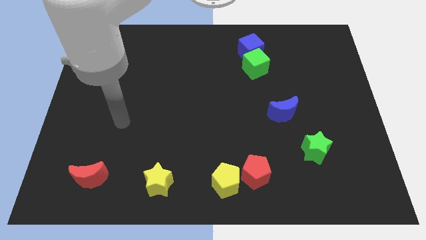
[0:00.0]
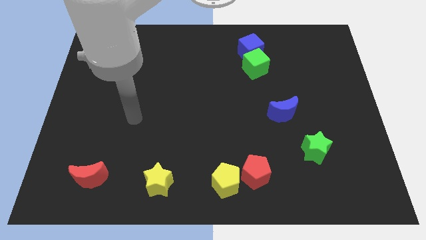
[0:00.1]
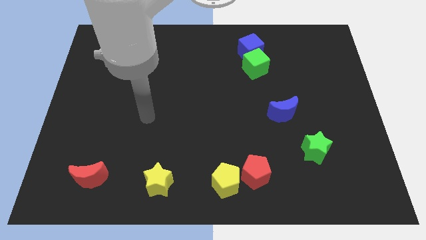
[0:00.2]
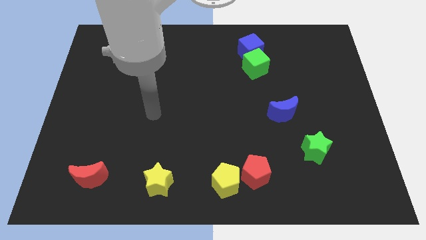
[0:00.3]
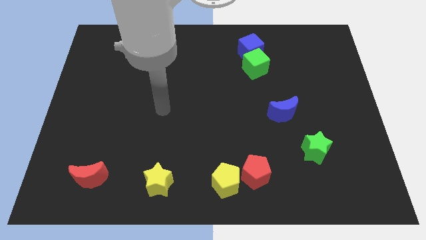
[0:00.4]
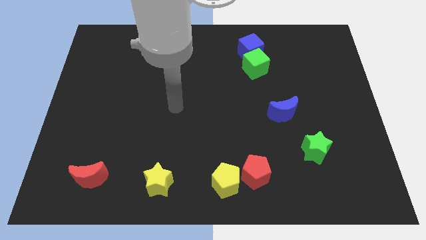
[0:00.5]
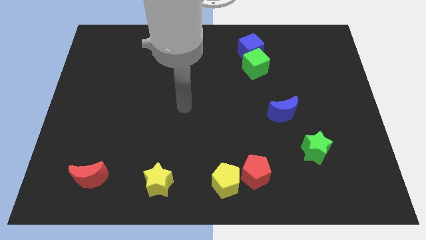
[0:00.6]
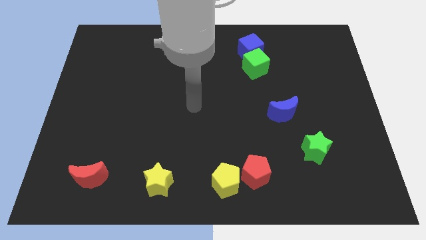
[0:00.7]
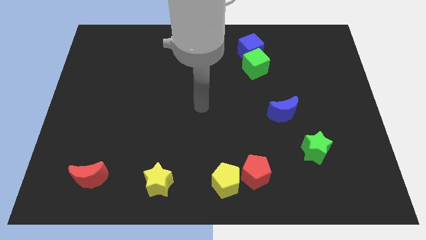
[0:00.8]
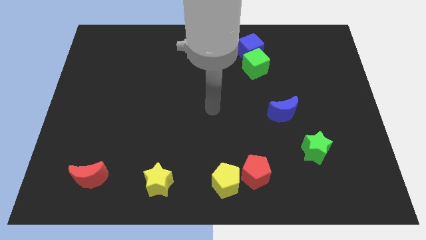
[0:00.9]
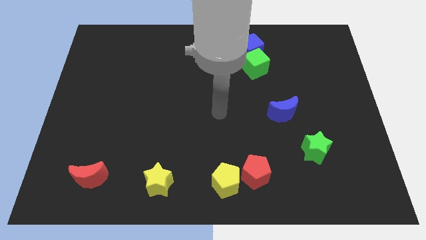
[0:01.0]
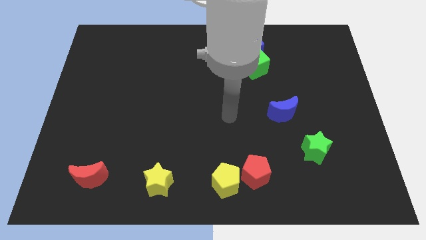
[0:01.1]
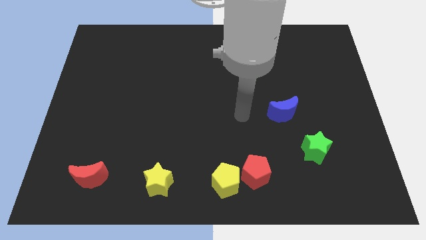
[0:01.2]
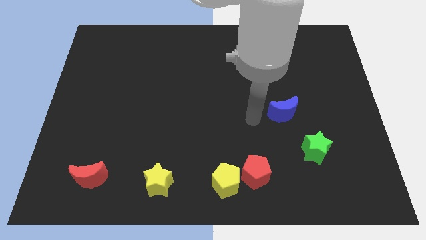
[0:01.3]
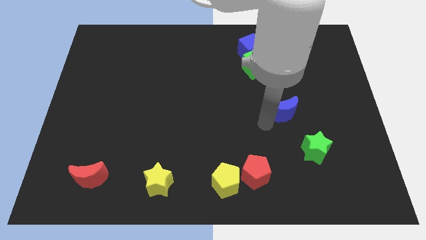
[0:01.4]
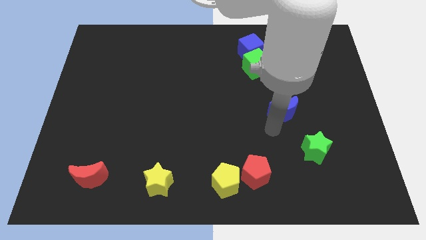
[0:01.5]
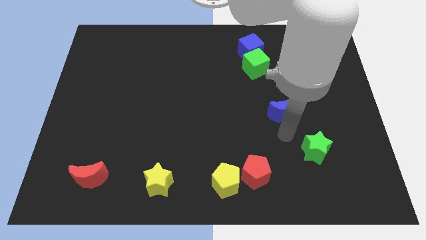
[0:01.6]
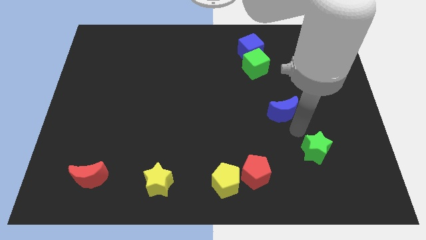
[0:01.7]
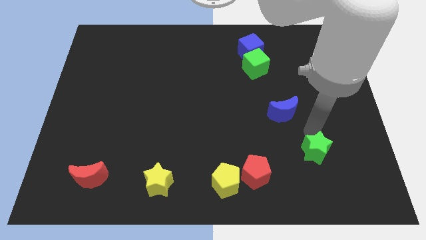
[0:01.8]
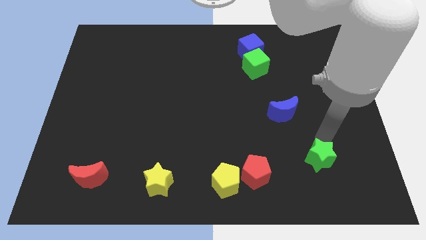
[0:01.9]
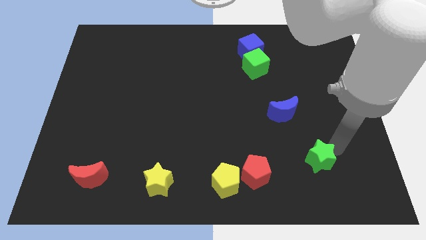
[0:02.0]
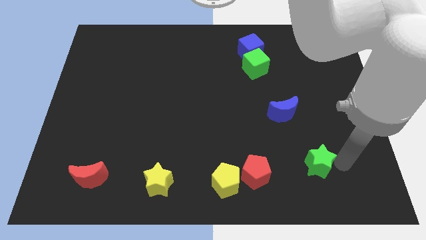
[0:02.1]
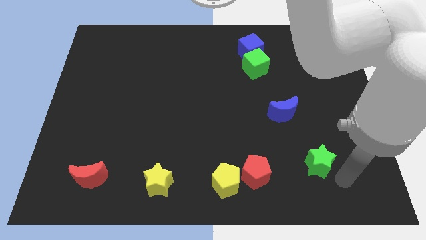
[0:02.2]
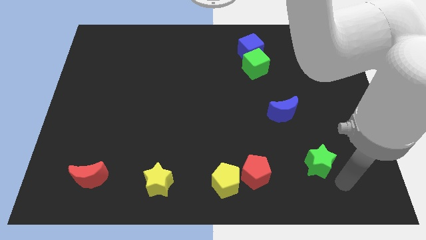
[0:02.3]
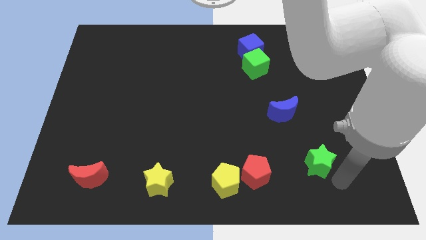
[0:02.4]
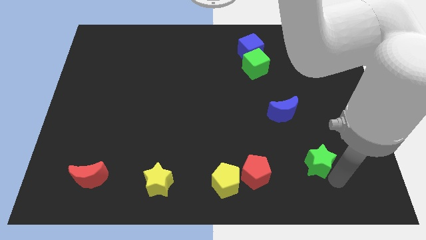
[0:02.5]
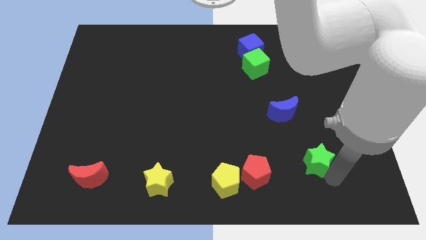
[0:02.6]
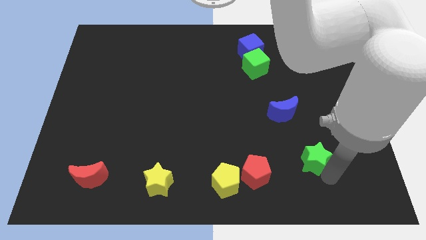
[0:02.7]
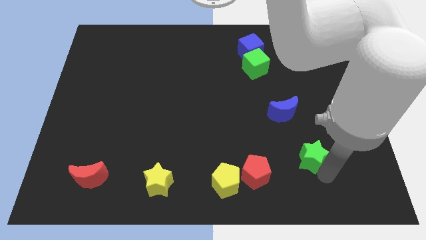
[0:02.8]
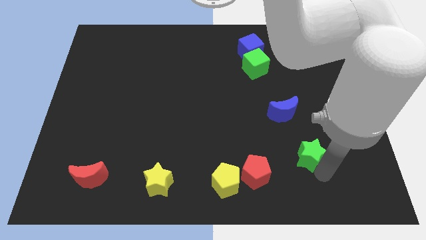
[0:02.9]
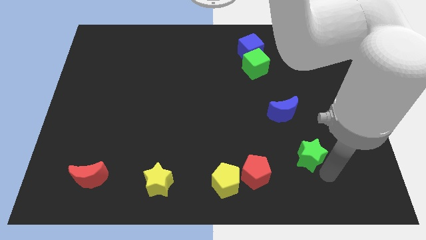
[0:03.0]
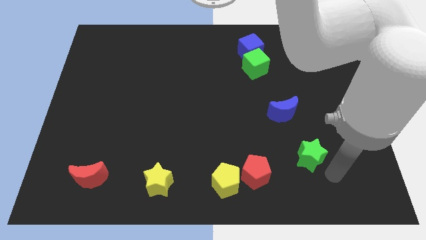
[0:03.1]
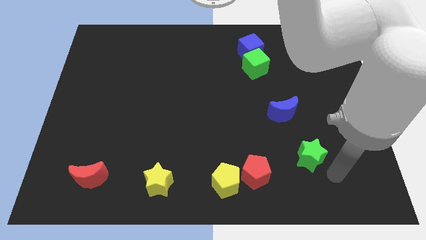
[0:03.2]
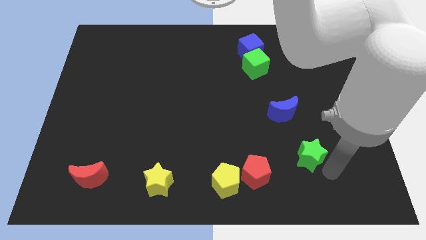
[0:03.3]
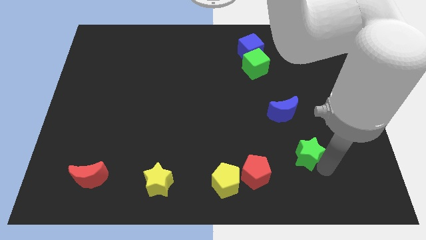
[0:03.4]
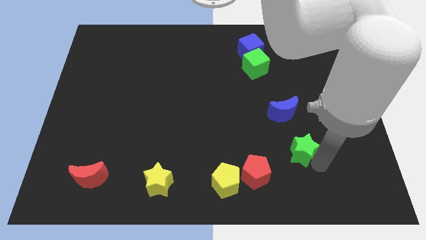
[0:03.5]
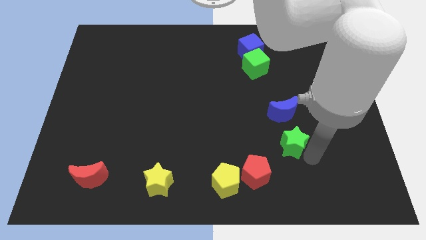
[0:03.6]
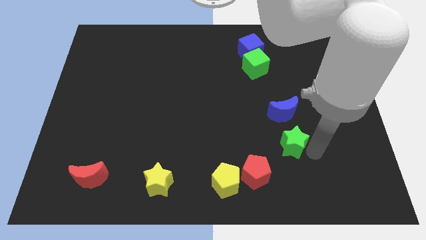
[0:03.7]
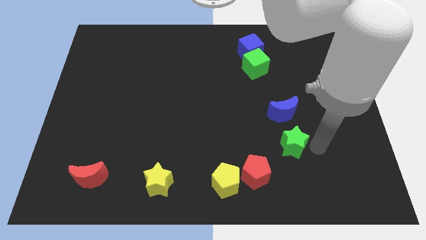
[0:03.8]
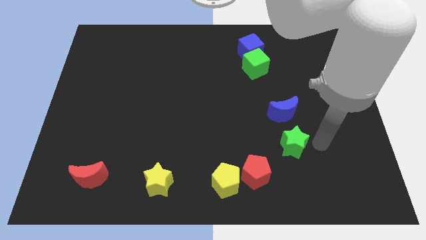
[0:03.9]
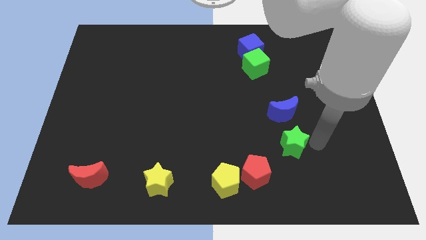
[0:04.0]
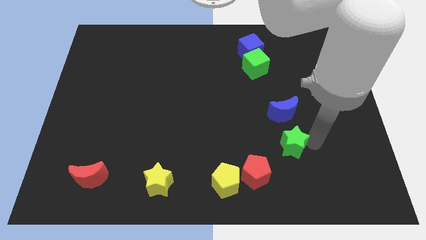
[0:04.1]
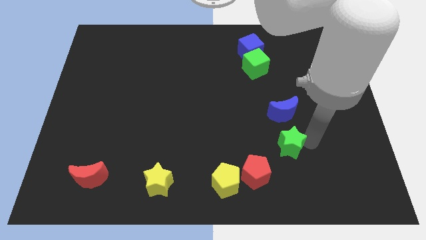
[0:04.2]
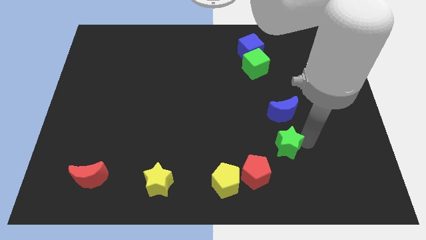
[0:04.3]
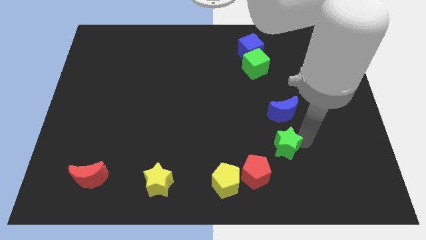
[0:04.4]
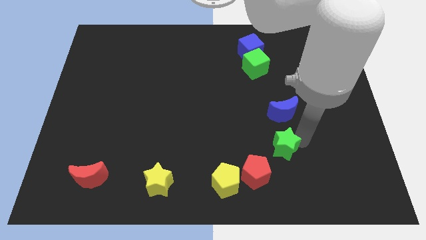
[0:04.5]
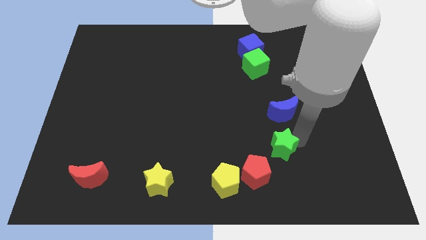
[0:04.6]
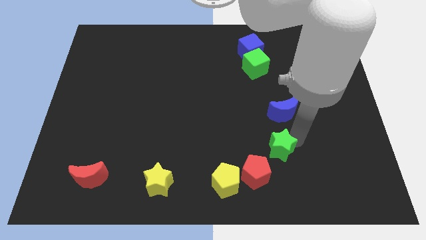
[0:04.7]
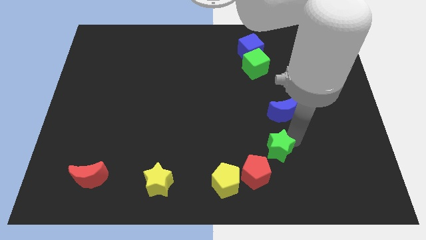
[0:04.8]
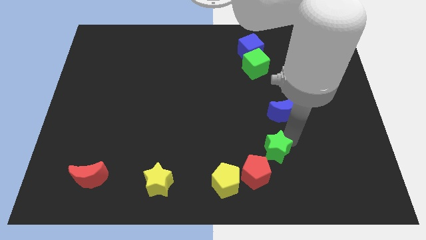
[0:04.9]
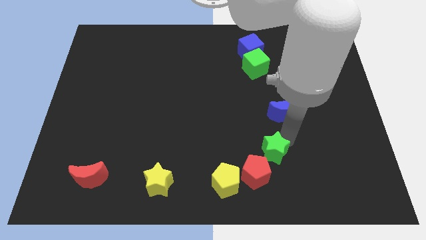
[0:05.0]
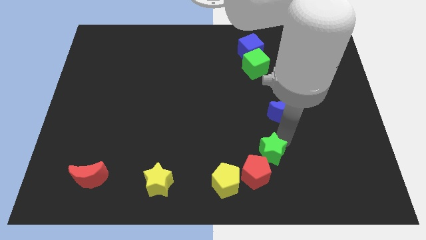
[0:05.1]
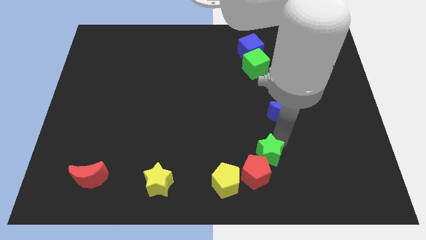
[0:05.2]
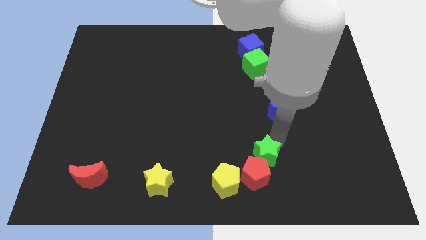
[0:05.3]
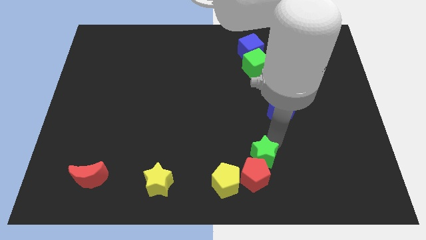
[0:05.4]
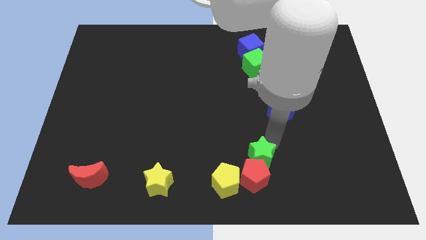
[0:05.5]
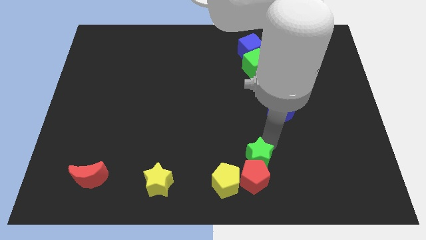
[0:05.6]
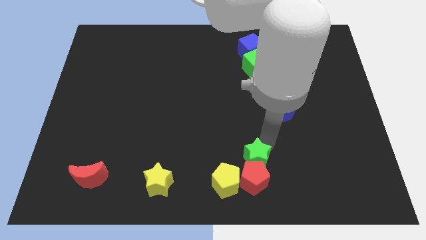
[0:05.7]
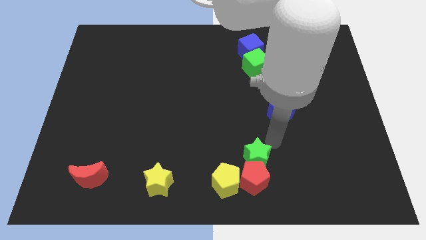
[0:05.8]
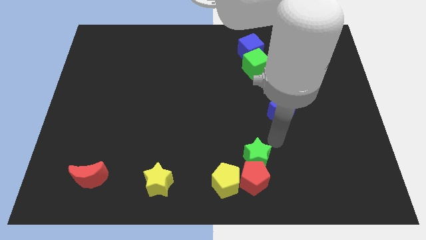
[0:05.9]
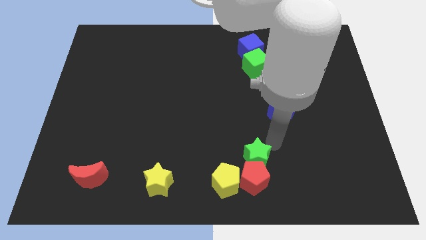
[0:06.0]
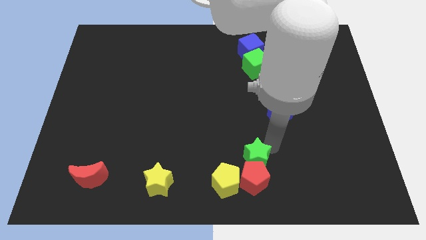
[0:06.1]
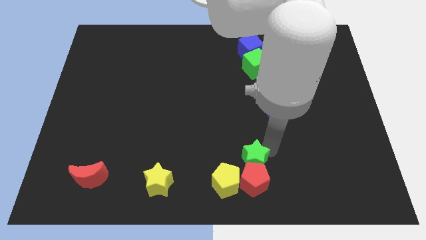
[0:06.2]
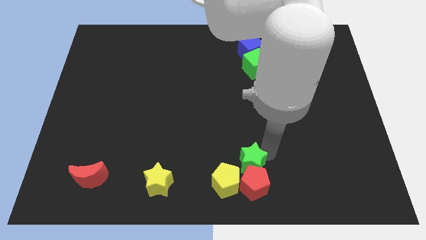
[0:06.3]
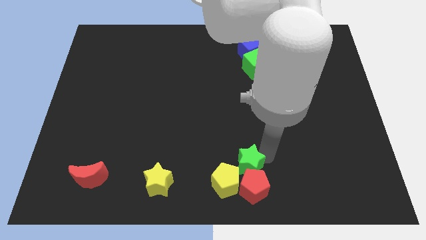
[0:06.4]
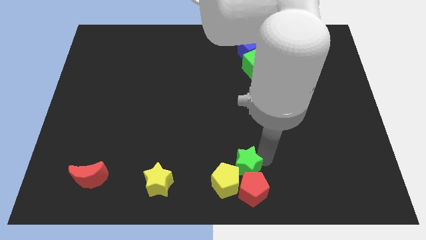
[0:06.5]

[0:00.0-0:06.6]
push the green star to the yellow pentagon

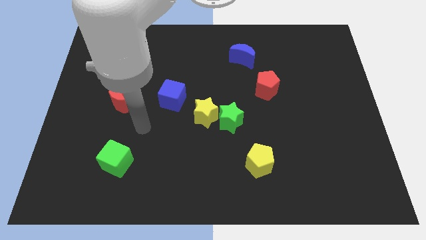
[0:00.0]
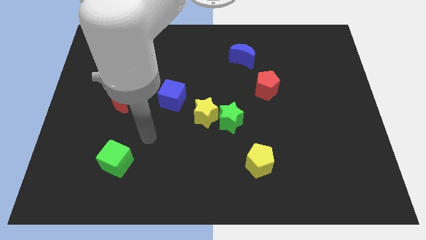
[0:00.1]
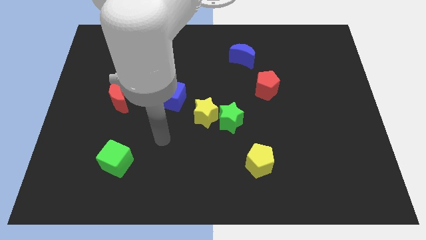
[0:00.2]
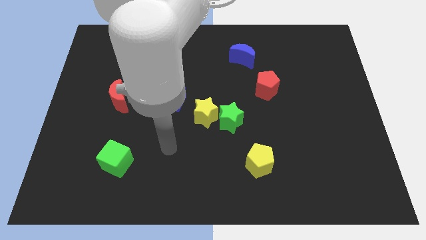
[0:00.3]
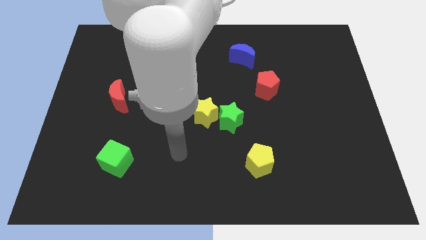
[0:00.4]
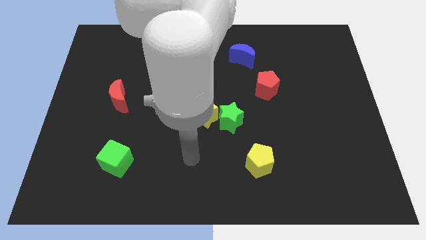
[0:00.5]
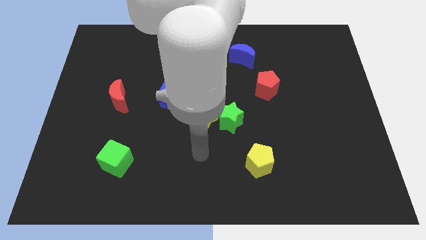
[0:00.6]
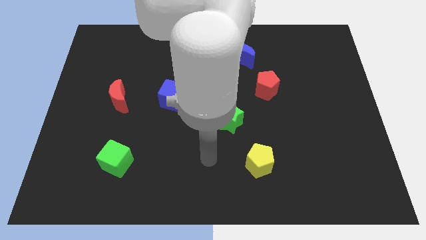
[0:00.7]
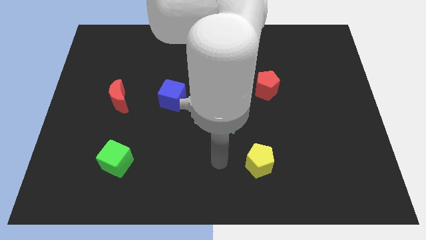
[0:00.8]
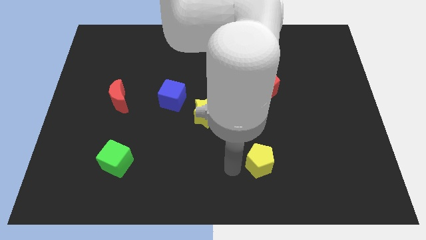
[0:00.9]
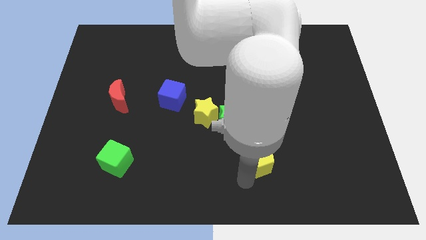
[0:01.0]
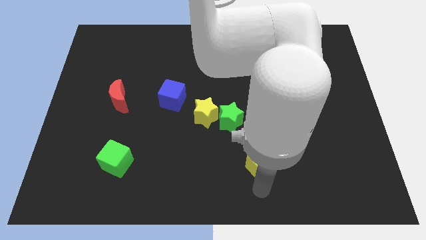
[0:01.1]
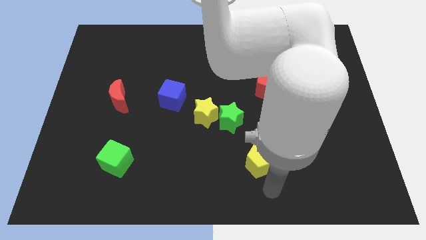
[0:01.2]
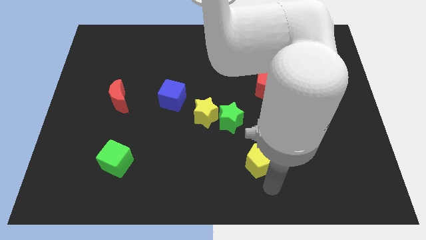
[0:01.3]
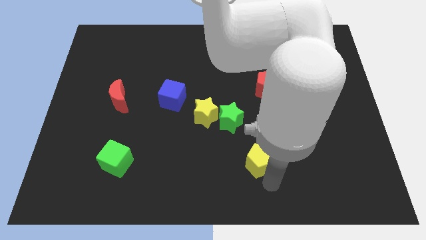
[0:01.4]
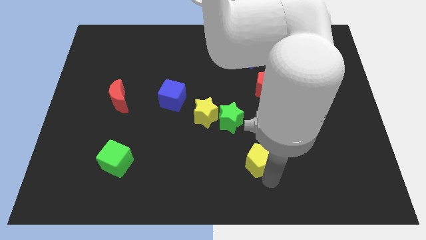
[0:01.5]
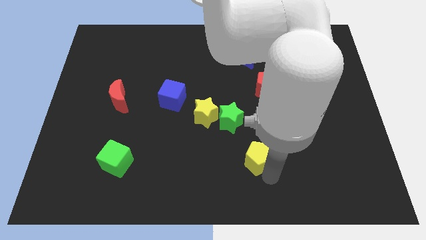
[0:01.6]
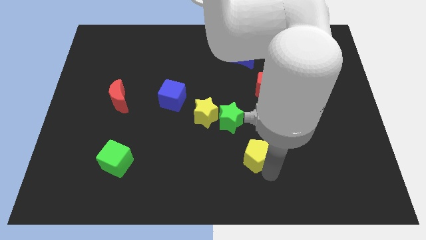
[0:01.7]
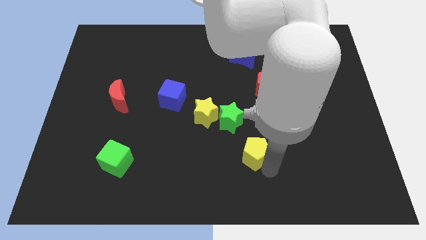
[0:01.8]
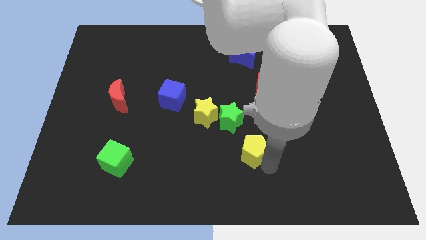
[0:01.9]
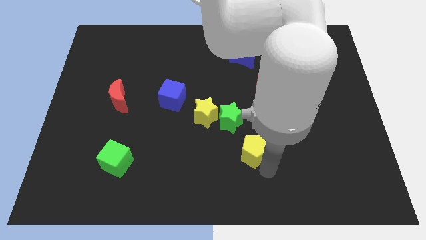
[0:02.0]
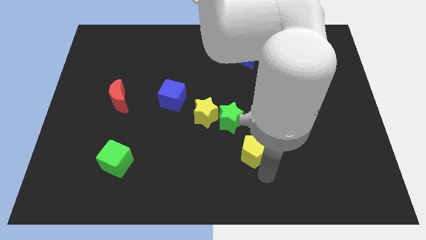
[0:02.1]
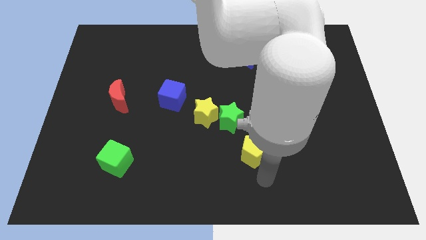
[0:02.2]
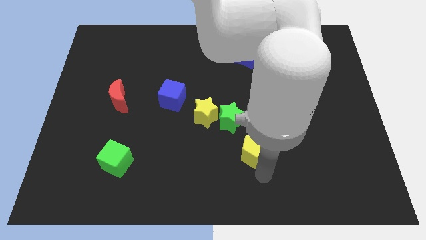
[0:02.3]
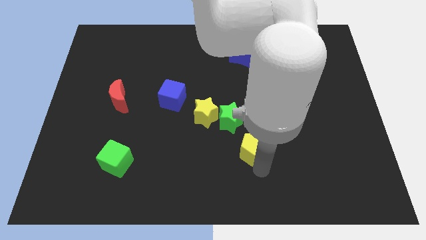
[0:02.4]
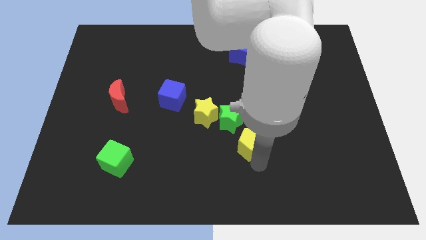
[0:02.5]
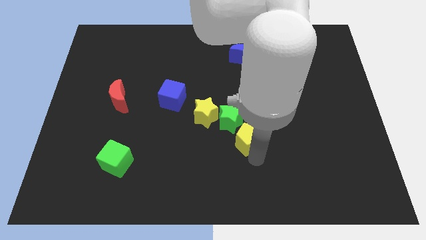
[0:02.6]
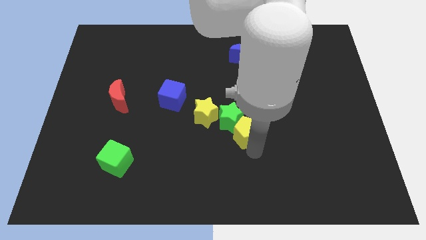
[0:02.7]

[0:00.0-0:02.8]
slide the yellow pentagon close to the green star
